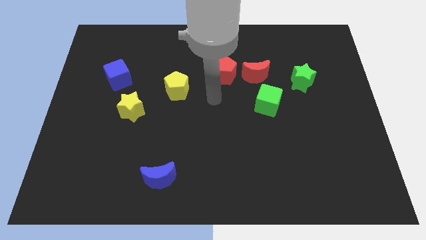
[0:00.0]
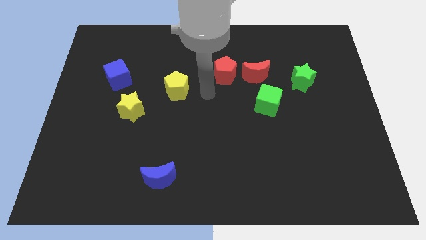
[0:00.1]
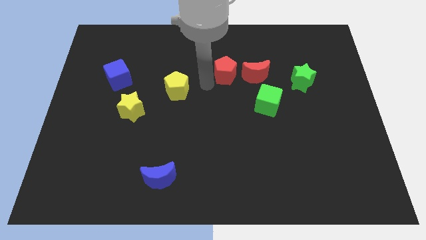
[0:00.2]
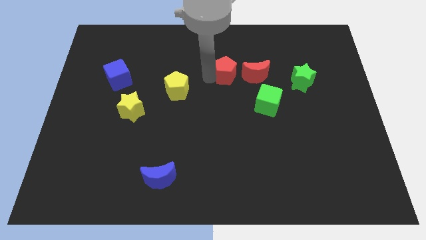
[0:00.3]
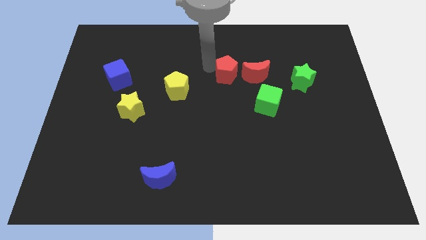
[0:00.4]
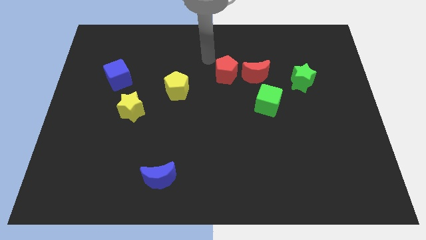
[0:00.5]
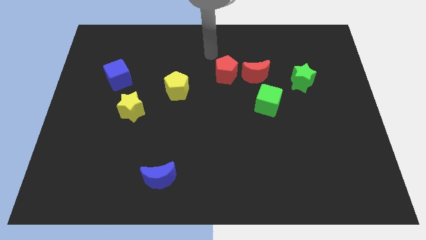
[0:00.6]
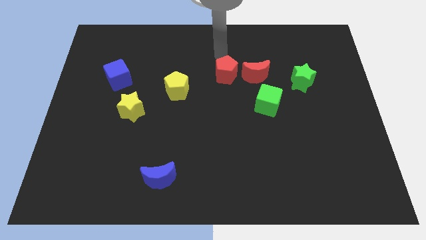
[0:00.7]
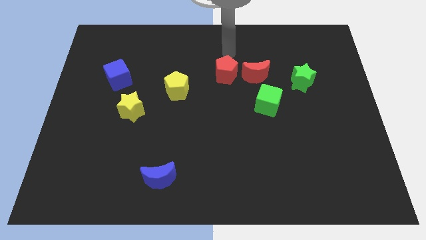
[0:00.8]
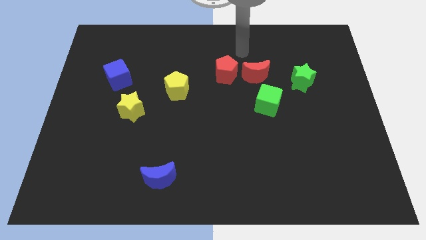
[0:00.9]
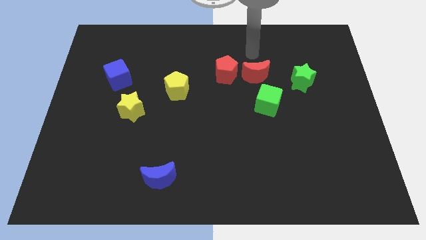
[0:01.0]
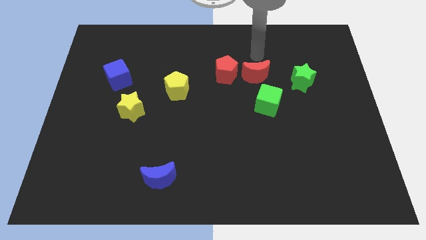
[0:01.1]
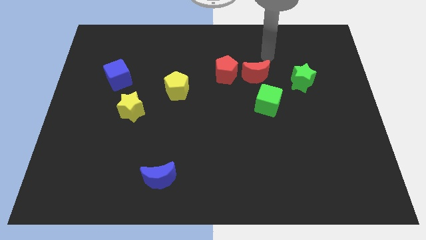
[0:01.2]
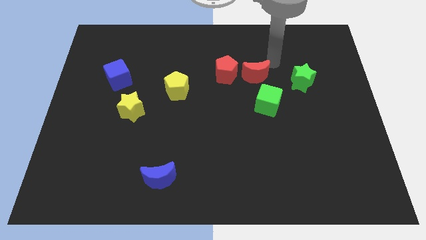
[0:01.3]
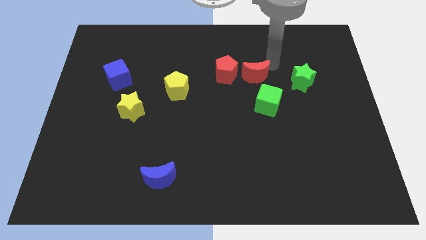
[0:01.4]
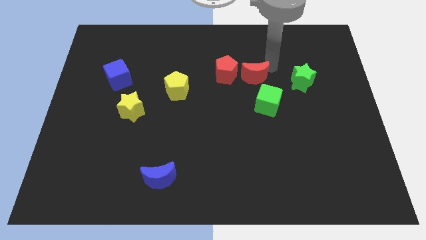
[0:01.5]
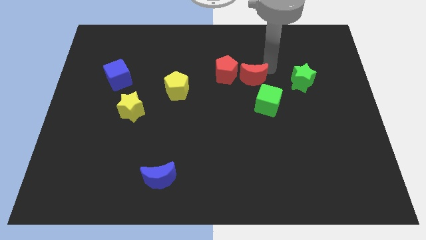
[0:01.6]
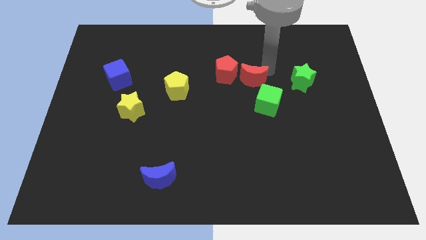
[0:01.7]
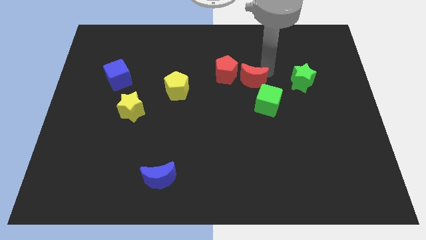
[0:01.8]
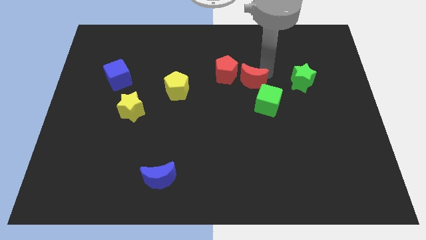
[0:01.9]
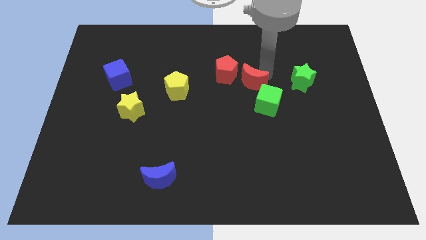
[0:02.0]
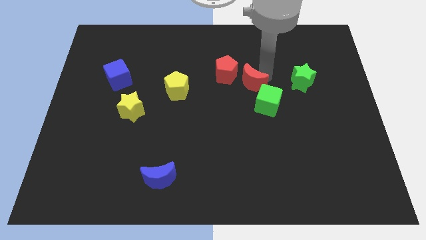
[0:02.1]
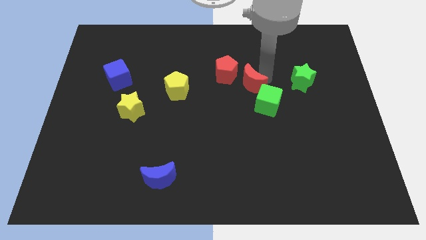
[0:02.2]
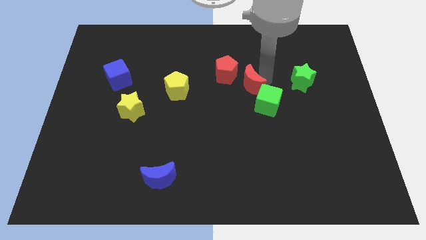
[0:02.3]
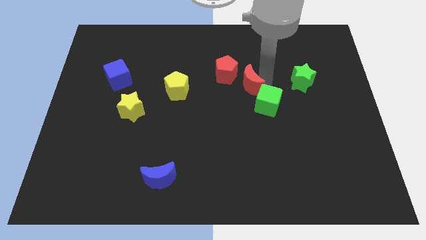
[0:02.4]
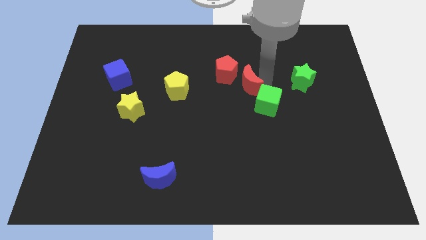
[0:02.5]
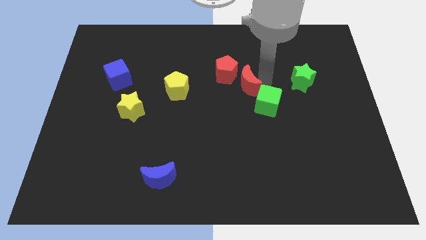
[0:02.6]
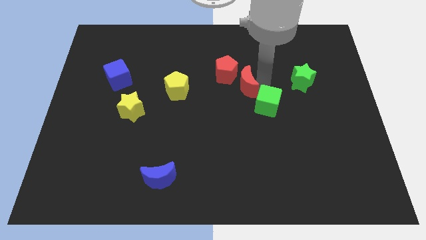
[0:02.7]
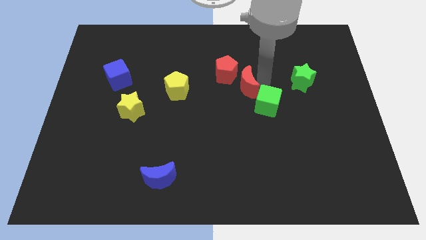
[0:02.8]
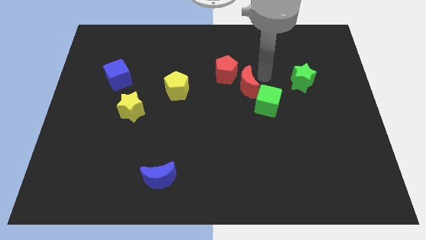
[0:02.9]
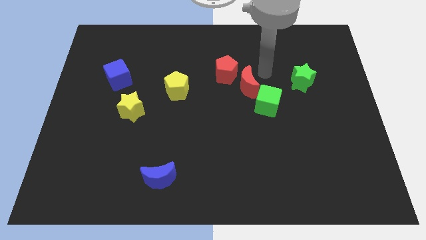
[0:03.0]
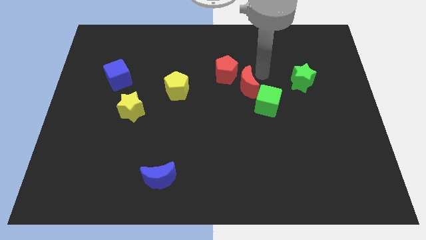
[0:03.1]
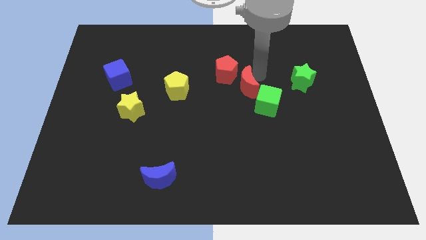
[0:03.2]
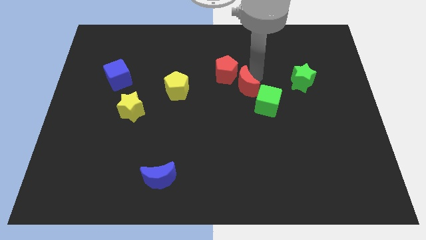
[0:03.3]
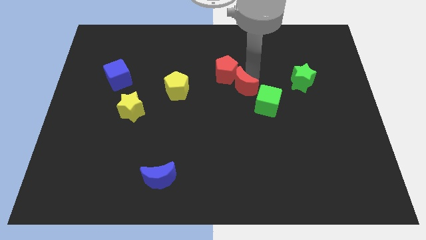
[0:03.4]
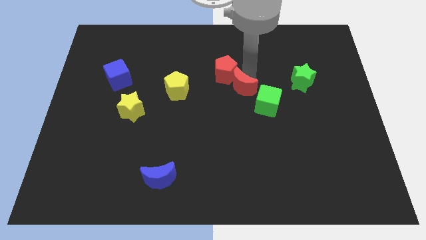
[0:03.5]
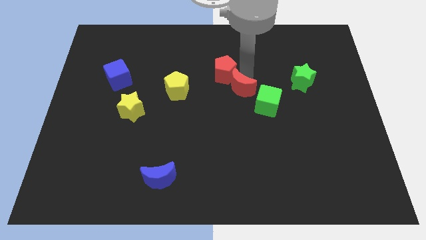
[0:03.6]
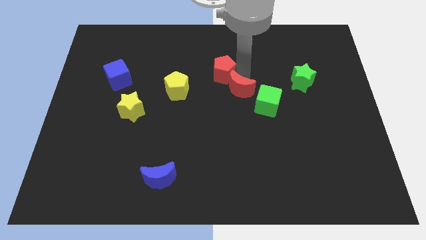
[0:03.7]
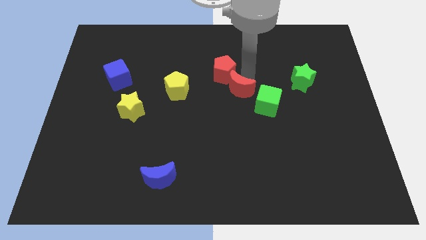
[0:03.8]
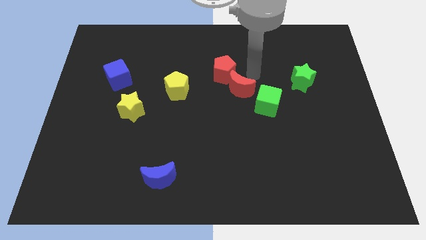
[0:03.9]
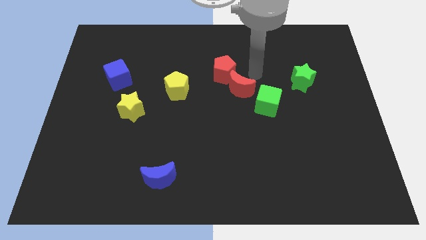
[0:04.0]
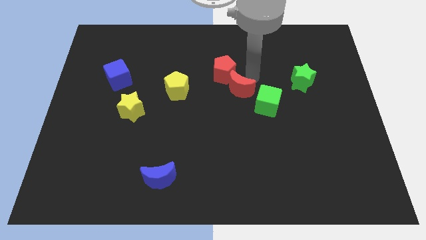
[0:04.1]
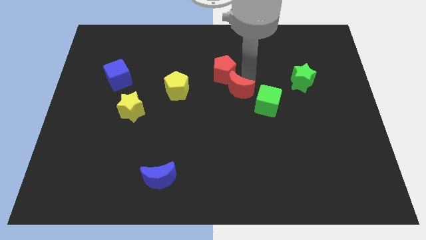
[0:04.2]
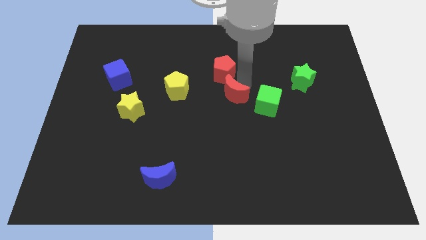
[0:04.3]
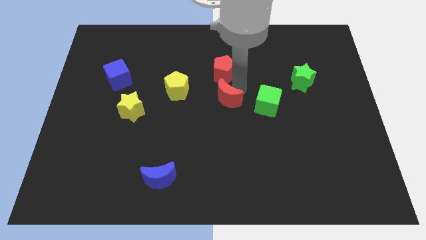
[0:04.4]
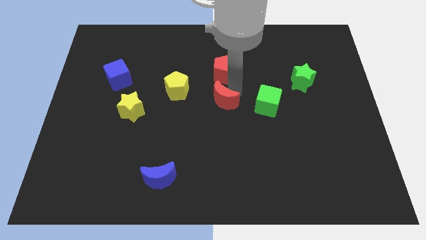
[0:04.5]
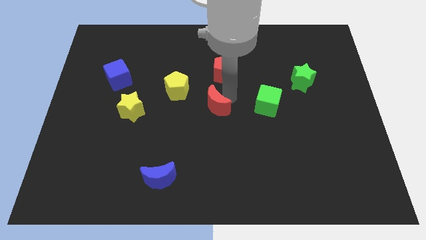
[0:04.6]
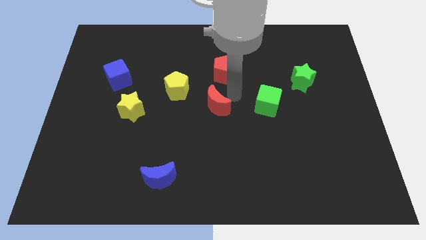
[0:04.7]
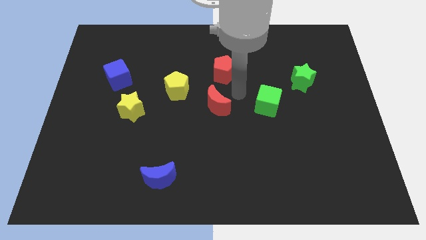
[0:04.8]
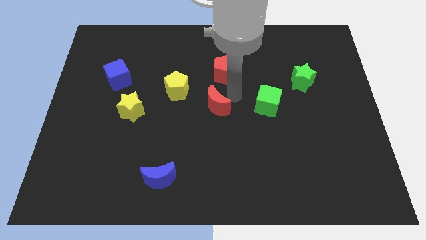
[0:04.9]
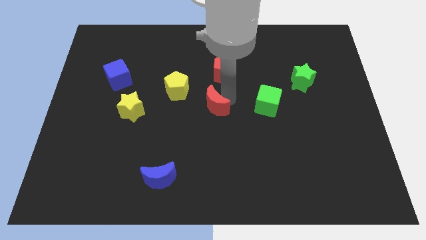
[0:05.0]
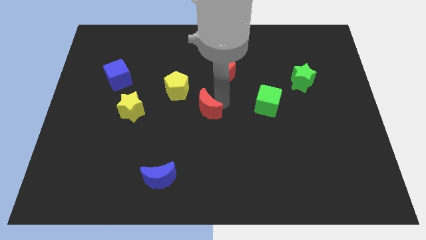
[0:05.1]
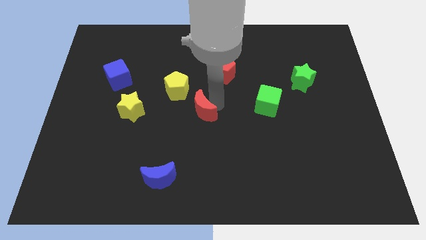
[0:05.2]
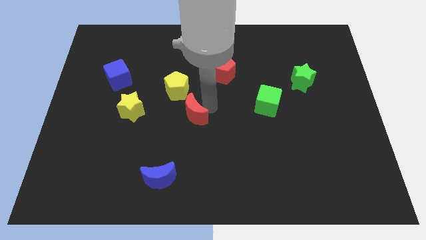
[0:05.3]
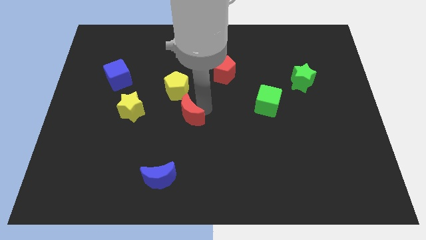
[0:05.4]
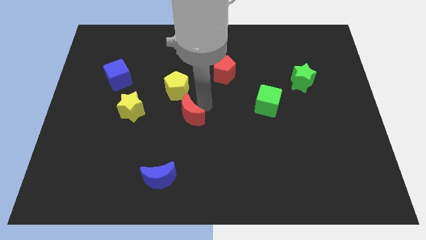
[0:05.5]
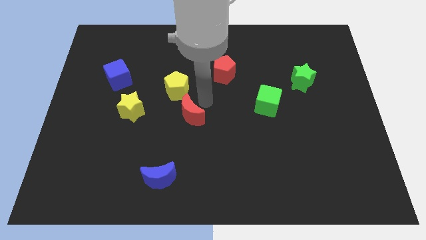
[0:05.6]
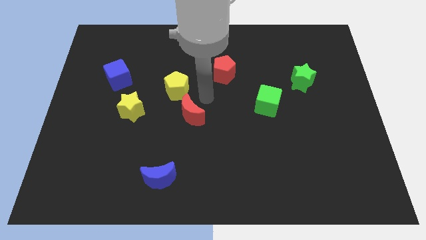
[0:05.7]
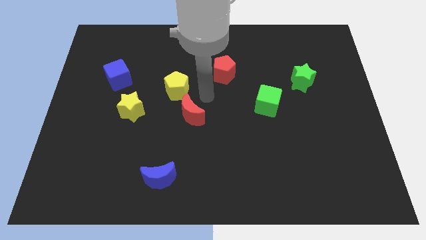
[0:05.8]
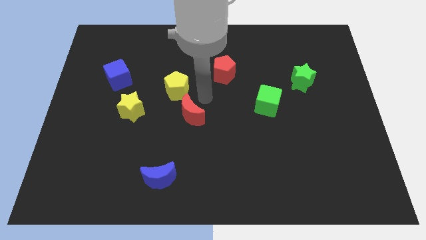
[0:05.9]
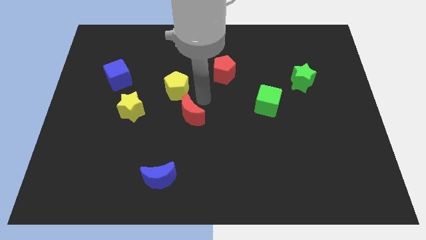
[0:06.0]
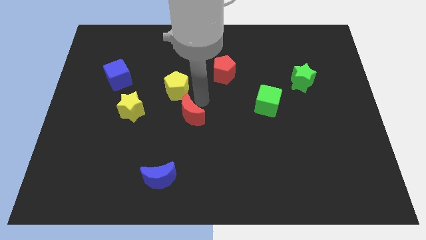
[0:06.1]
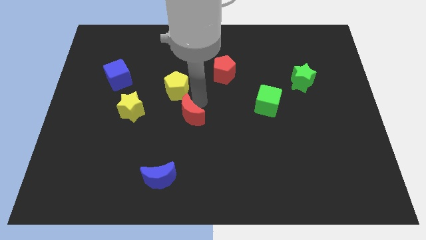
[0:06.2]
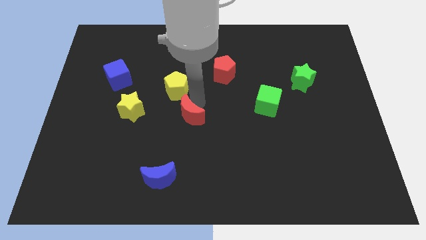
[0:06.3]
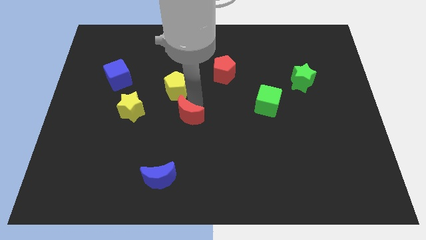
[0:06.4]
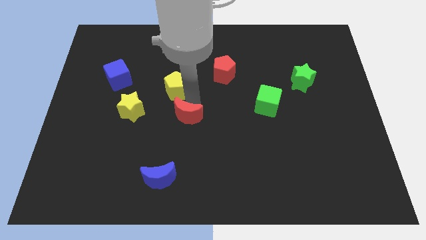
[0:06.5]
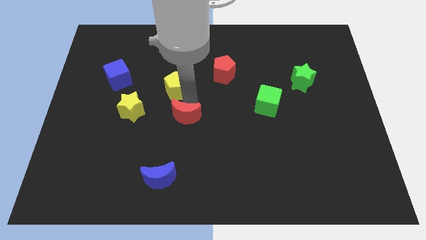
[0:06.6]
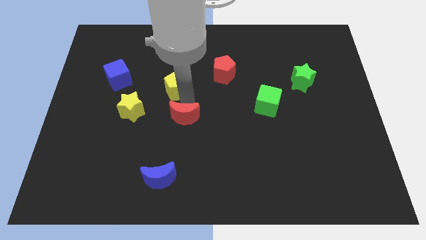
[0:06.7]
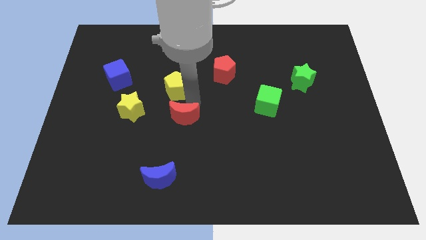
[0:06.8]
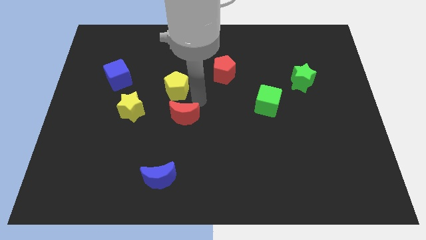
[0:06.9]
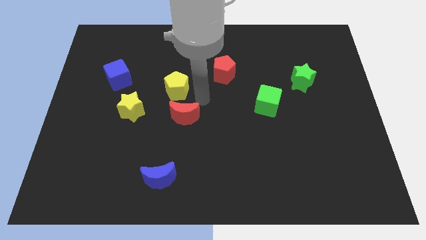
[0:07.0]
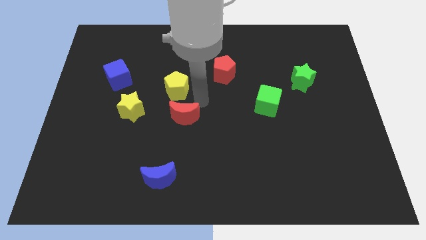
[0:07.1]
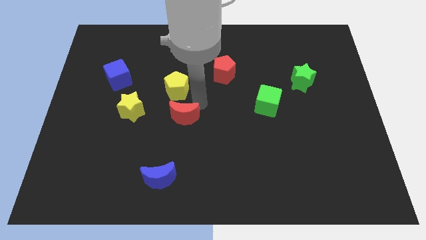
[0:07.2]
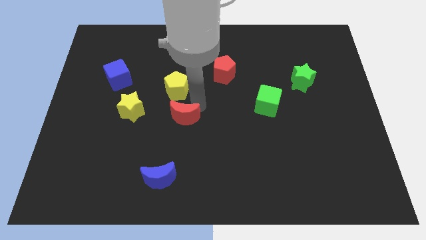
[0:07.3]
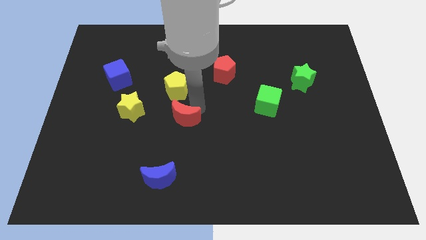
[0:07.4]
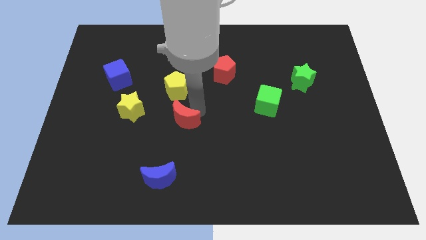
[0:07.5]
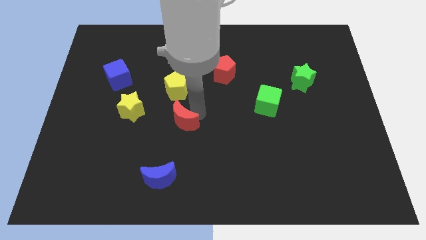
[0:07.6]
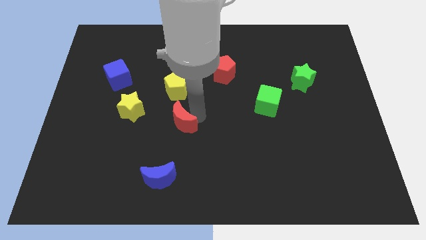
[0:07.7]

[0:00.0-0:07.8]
put the red moon to the top side of the blue moon
